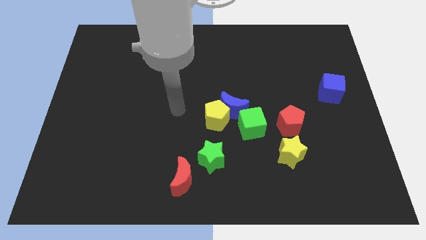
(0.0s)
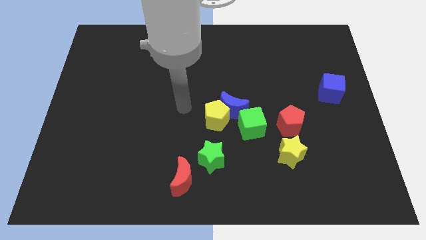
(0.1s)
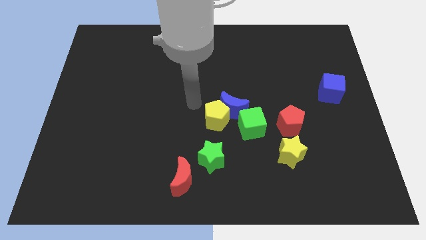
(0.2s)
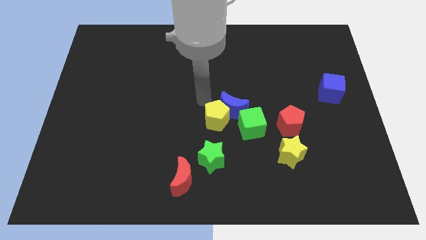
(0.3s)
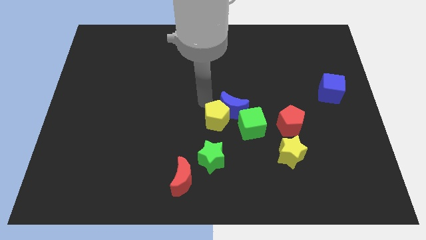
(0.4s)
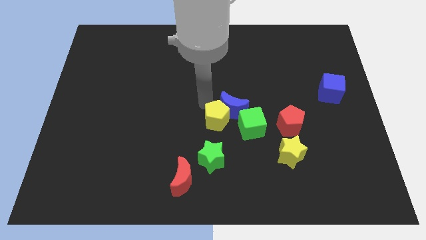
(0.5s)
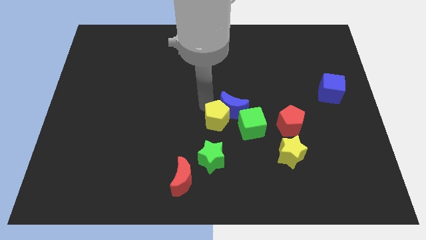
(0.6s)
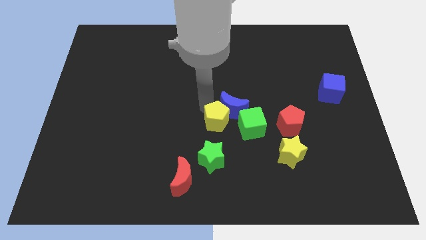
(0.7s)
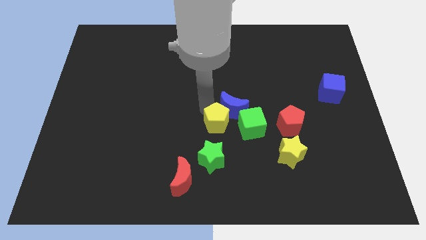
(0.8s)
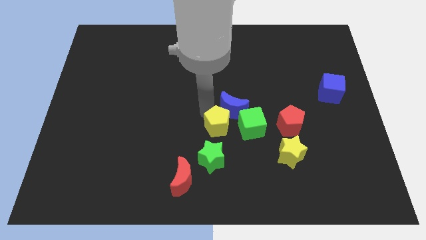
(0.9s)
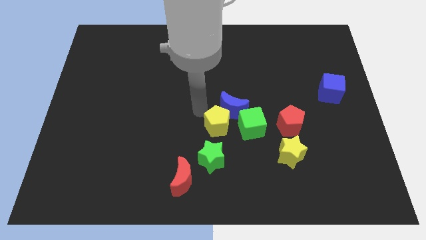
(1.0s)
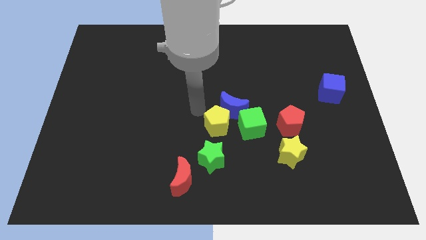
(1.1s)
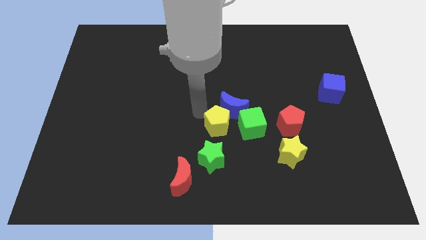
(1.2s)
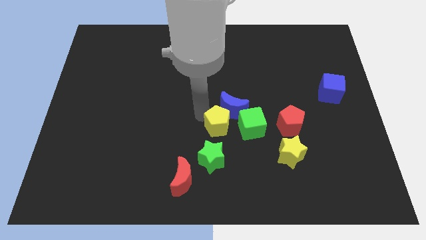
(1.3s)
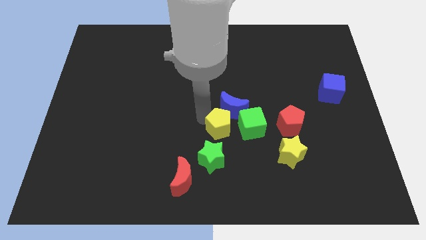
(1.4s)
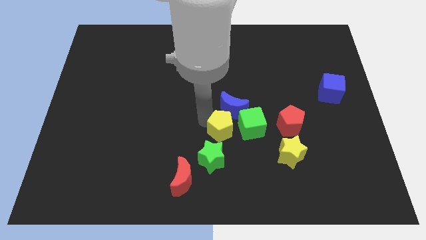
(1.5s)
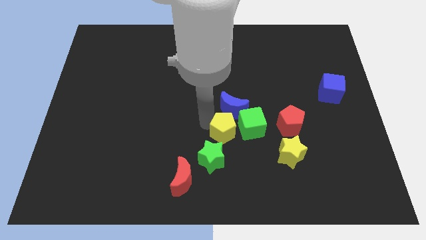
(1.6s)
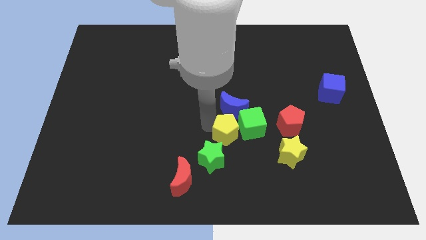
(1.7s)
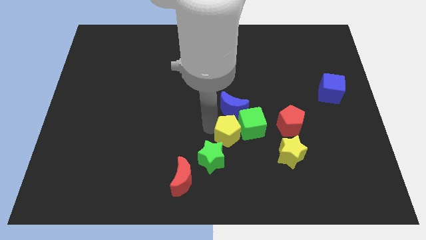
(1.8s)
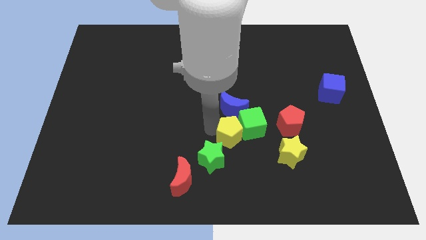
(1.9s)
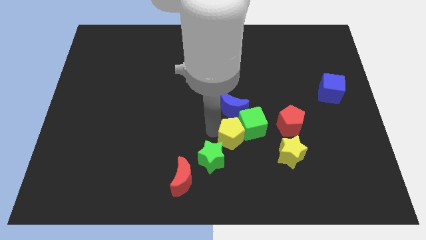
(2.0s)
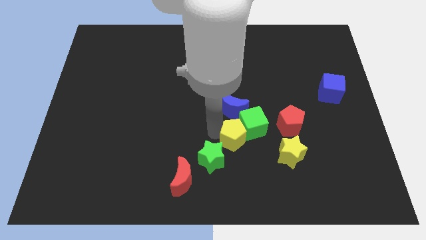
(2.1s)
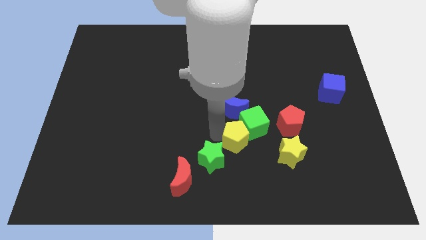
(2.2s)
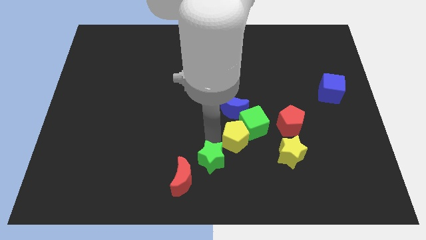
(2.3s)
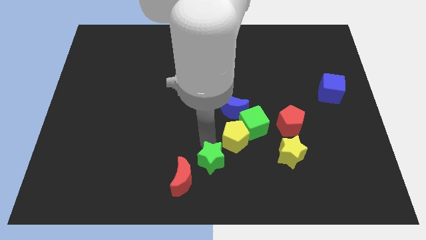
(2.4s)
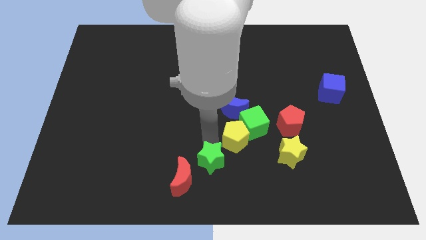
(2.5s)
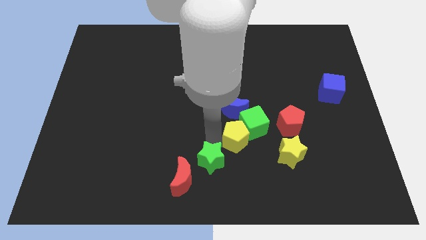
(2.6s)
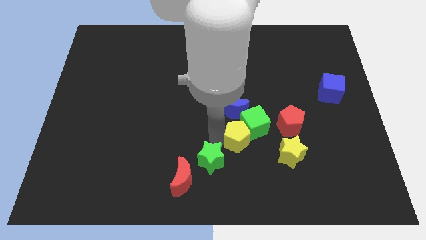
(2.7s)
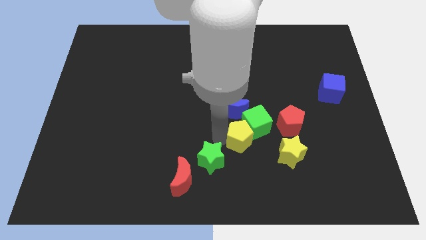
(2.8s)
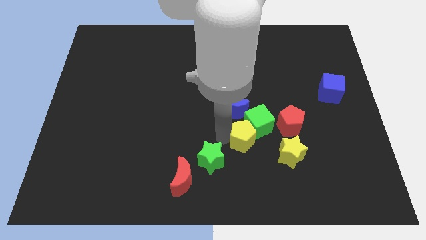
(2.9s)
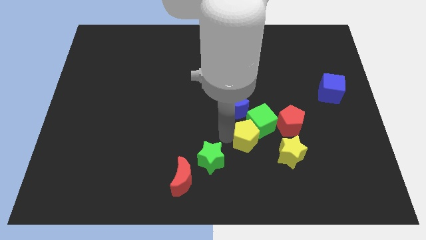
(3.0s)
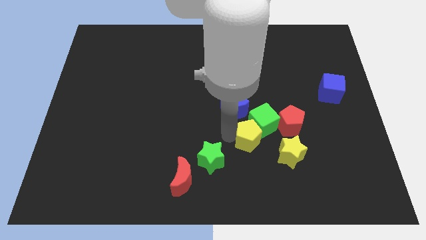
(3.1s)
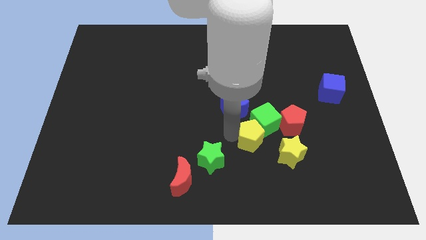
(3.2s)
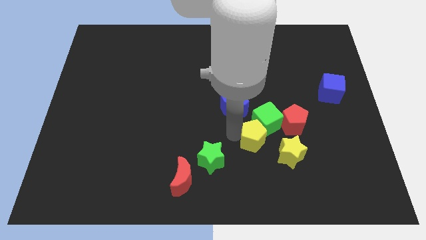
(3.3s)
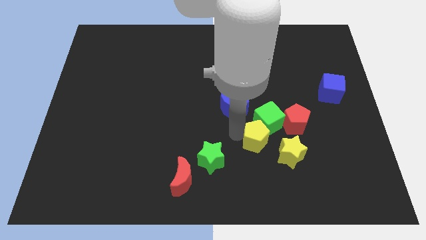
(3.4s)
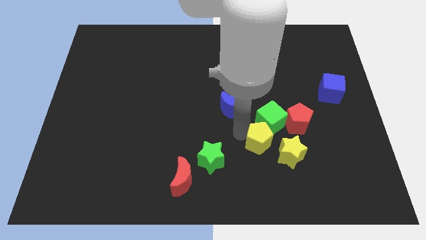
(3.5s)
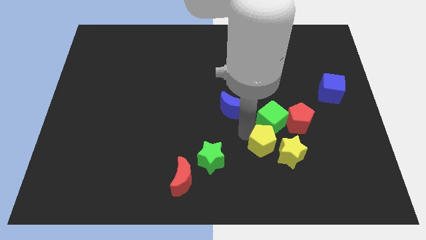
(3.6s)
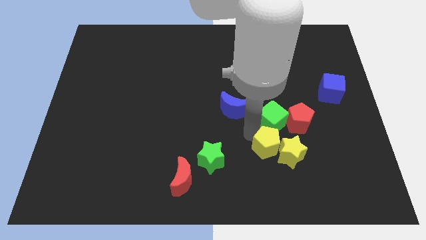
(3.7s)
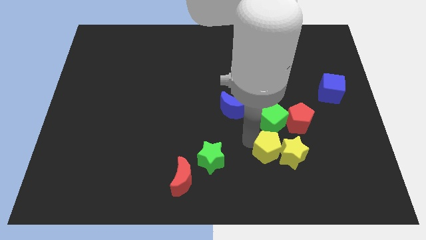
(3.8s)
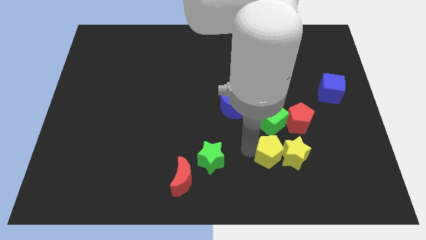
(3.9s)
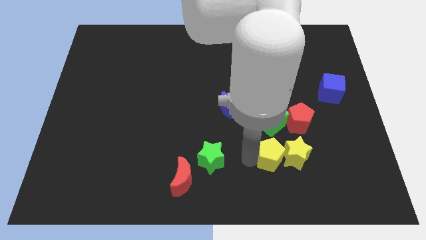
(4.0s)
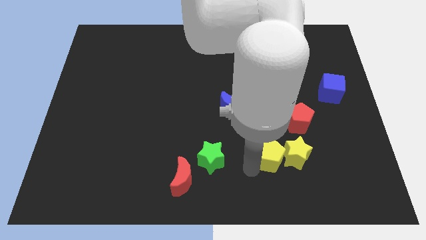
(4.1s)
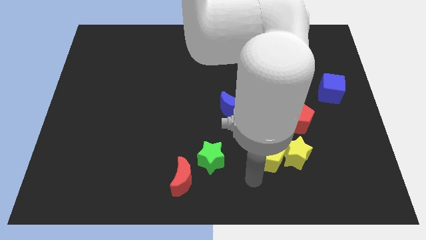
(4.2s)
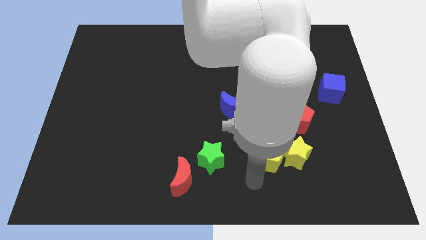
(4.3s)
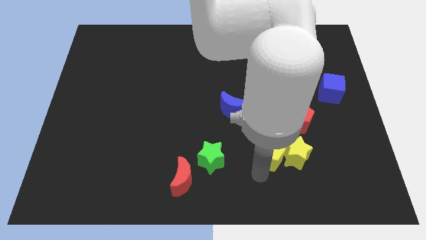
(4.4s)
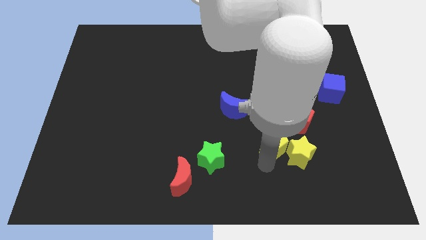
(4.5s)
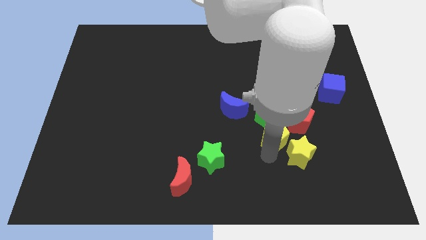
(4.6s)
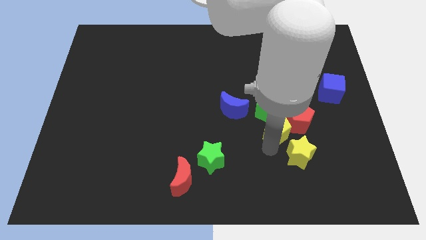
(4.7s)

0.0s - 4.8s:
slide the yellow pentagon next to the red pentagon

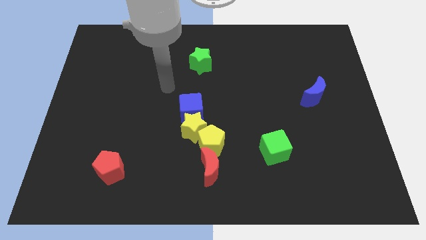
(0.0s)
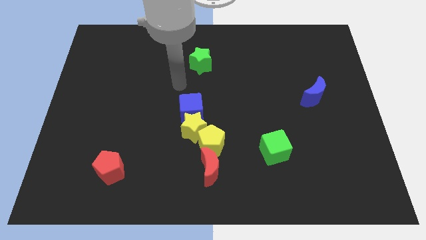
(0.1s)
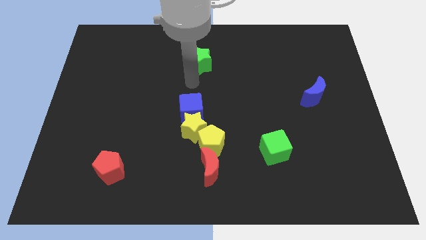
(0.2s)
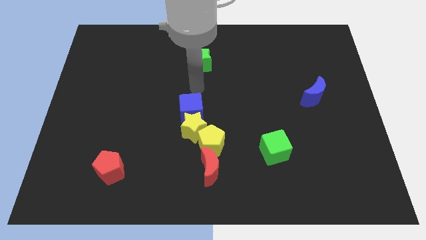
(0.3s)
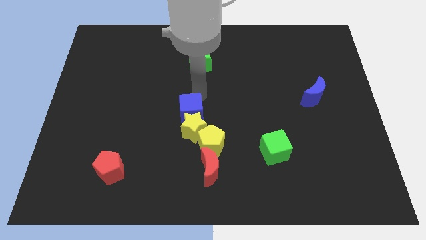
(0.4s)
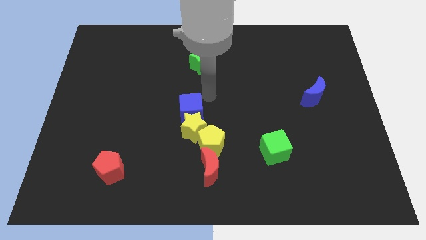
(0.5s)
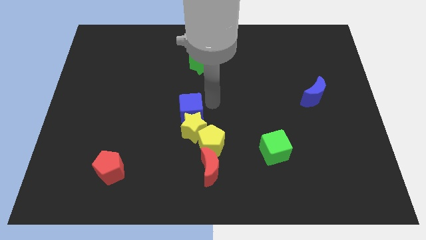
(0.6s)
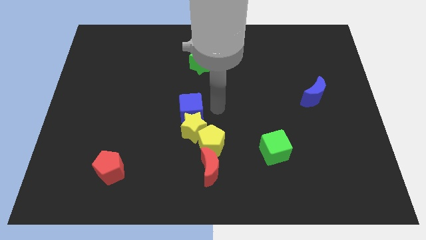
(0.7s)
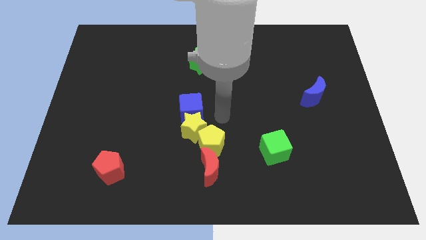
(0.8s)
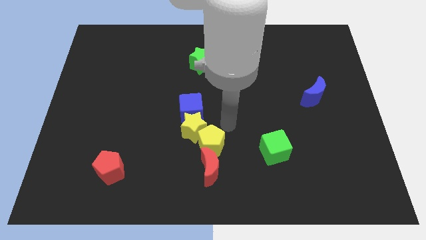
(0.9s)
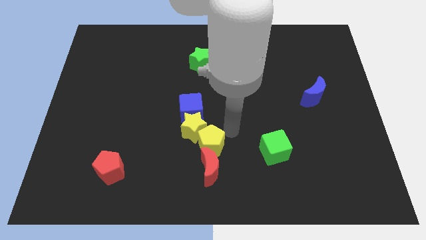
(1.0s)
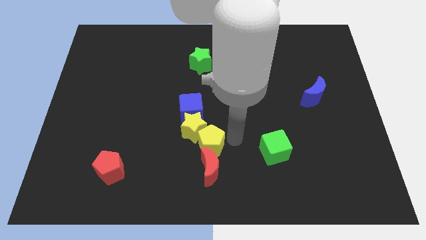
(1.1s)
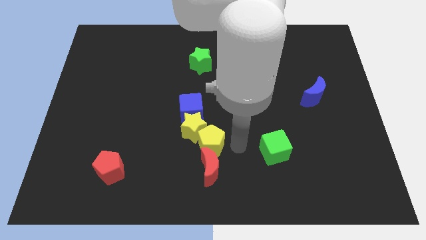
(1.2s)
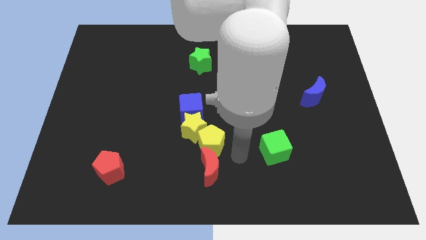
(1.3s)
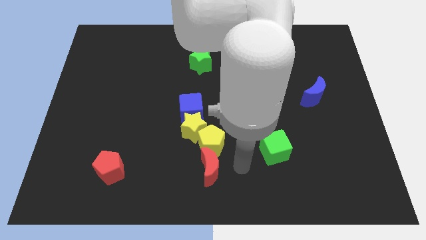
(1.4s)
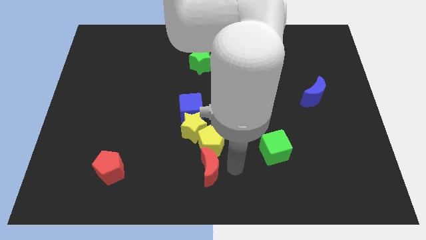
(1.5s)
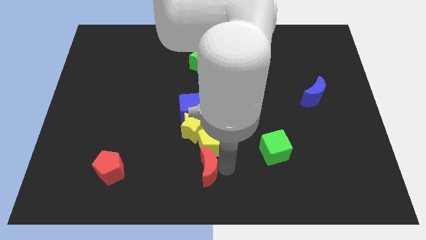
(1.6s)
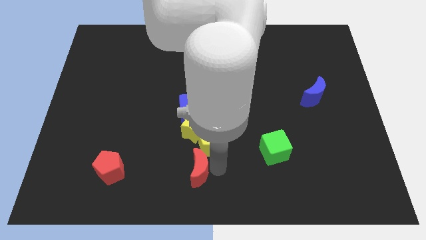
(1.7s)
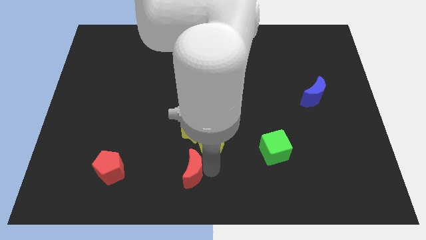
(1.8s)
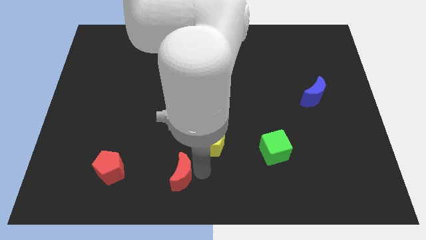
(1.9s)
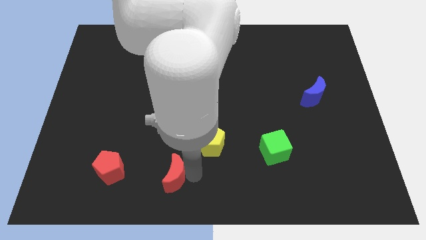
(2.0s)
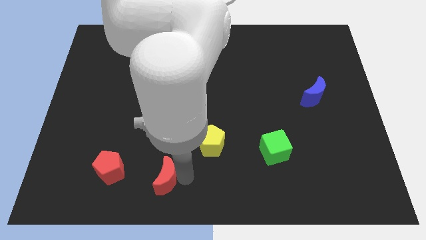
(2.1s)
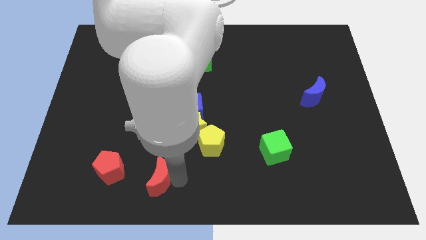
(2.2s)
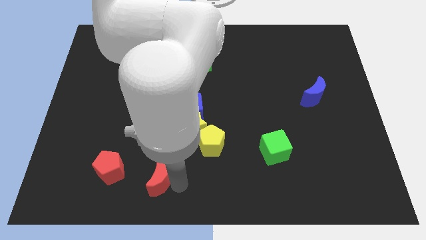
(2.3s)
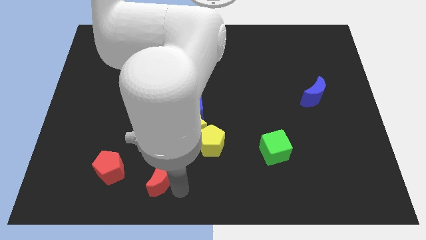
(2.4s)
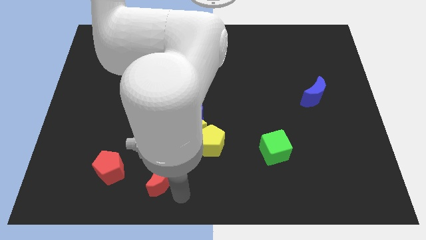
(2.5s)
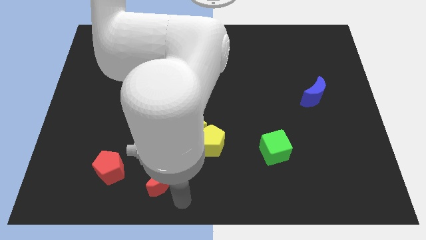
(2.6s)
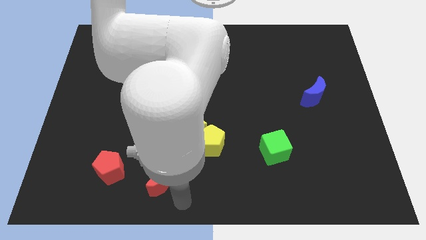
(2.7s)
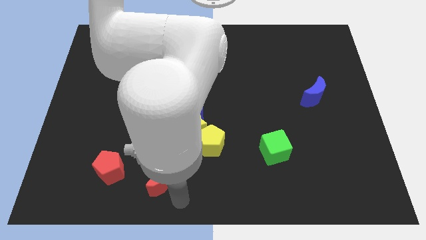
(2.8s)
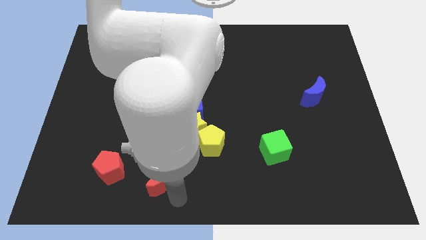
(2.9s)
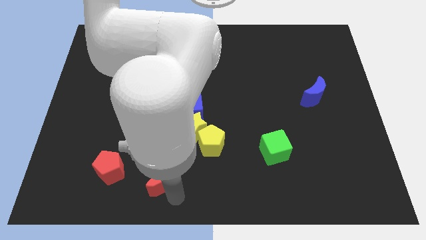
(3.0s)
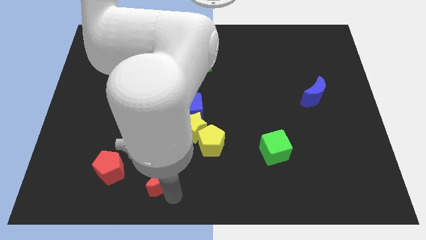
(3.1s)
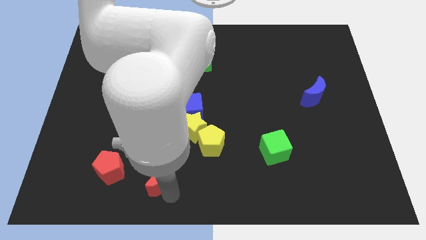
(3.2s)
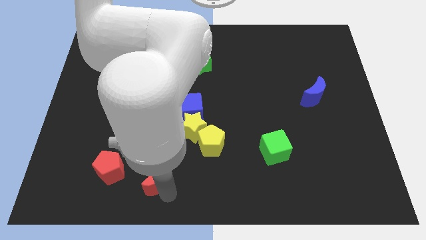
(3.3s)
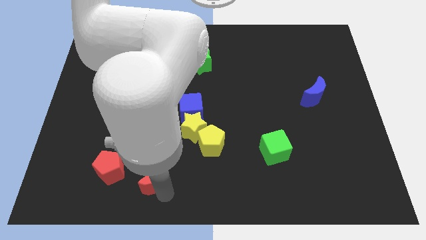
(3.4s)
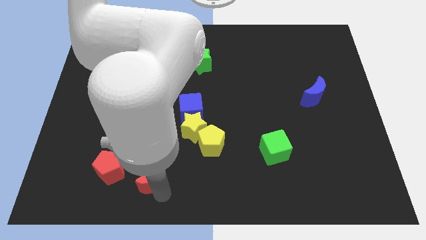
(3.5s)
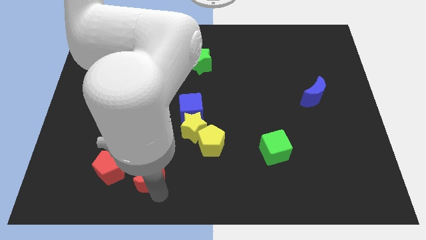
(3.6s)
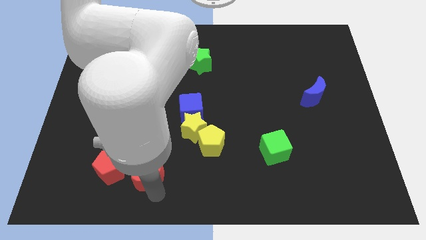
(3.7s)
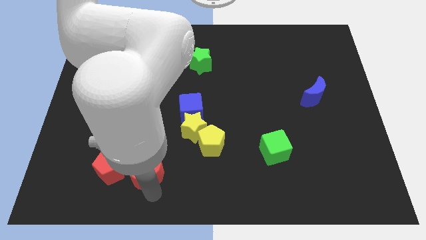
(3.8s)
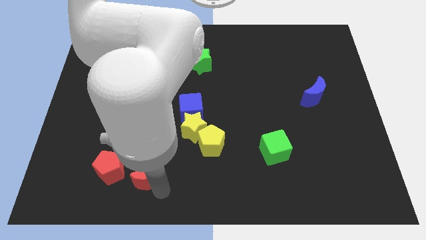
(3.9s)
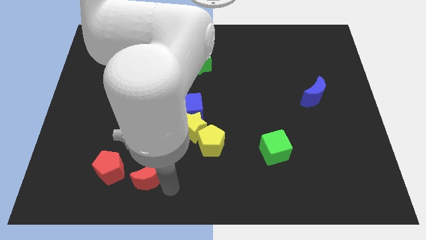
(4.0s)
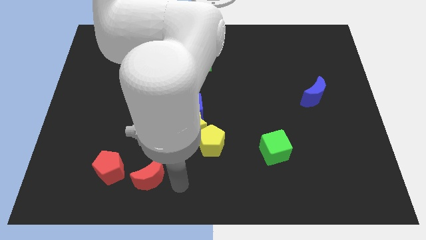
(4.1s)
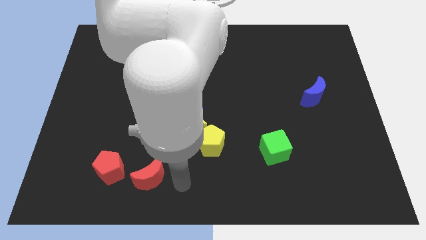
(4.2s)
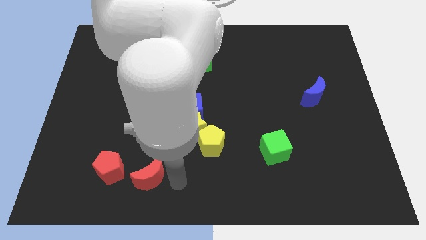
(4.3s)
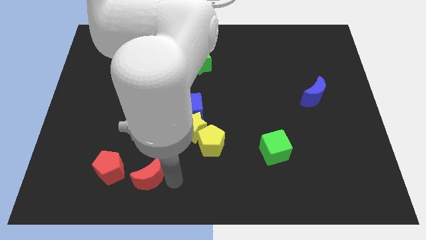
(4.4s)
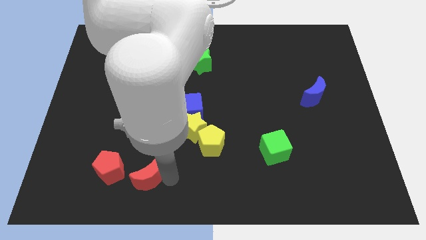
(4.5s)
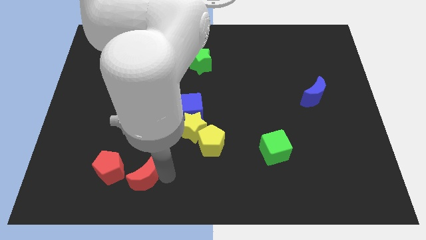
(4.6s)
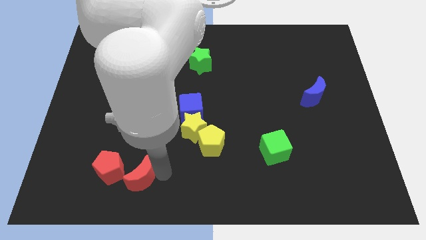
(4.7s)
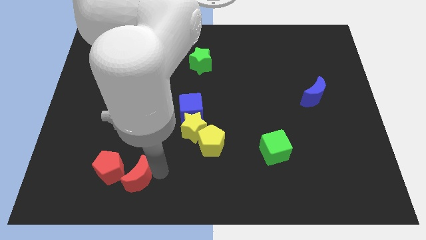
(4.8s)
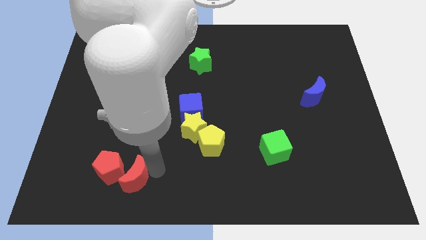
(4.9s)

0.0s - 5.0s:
slide the red moon towards the red pentagon
